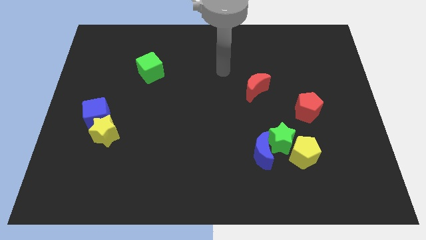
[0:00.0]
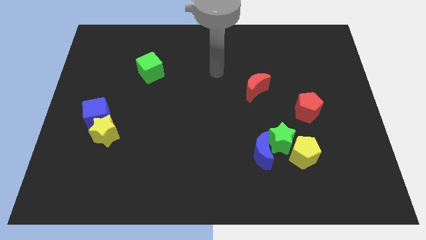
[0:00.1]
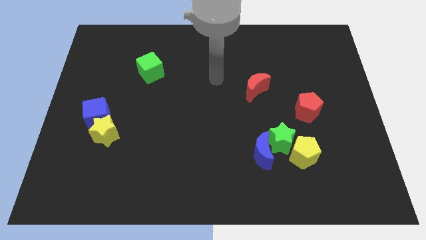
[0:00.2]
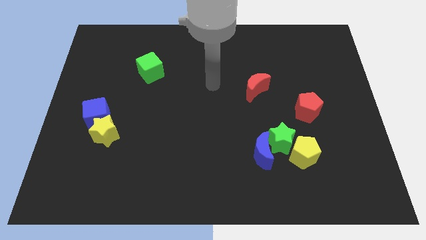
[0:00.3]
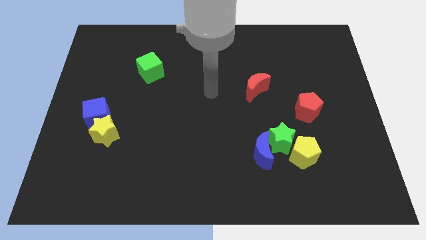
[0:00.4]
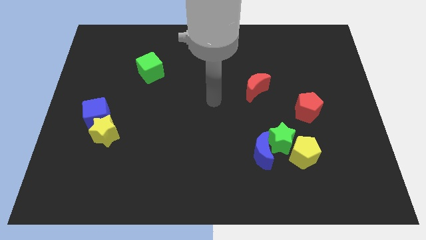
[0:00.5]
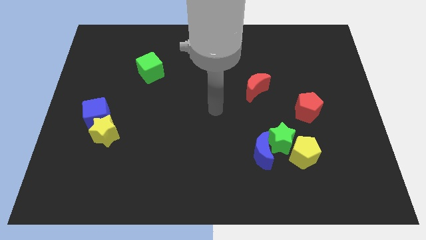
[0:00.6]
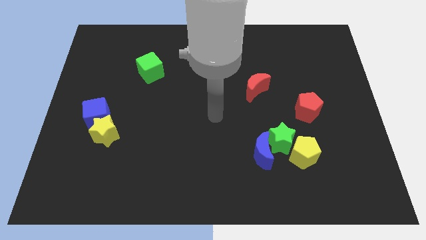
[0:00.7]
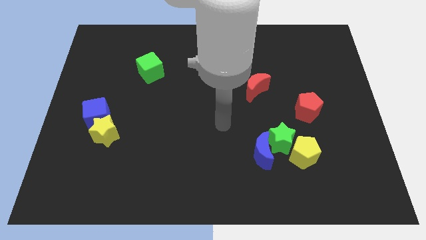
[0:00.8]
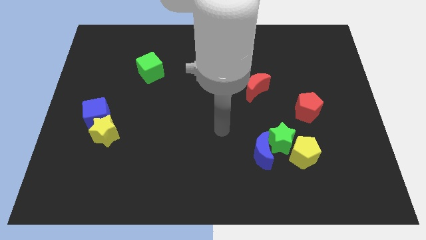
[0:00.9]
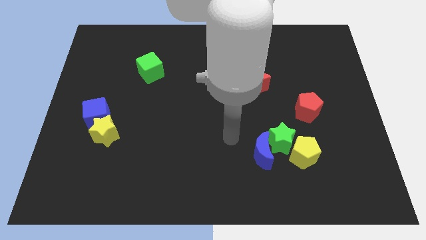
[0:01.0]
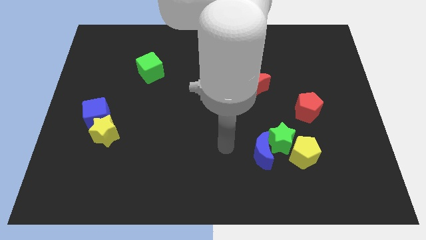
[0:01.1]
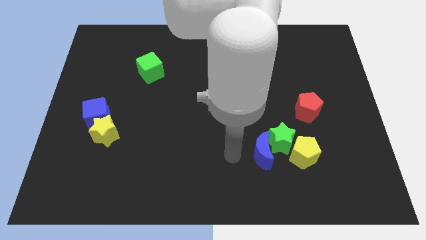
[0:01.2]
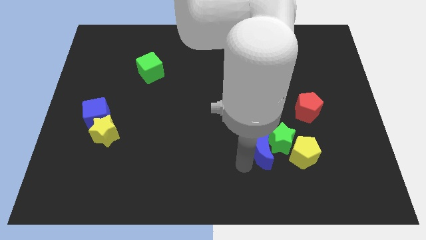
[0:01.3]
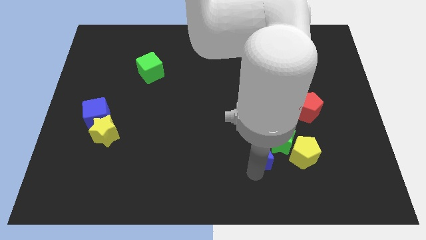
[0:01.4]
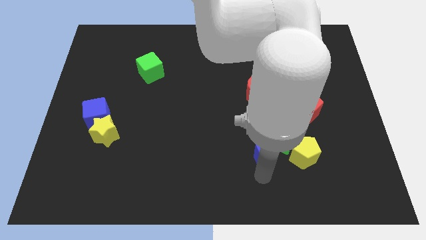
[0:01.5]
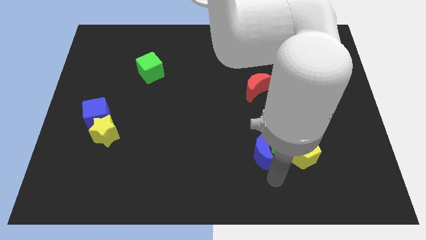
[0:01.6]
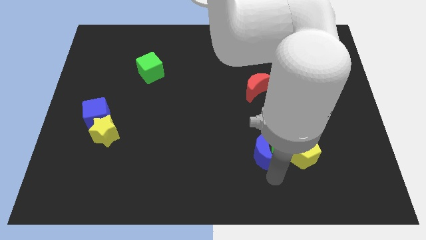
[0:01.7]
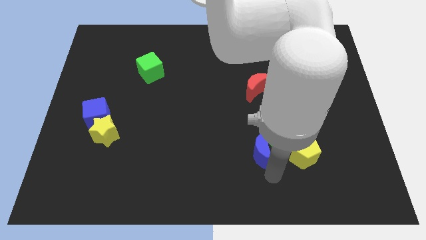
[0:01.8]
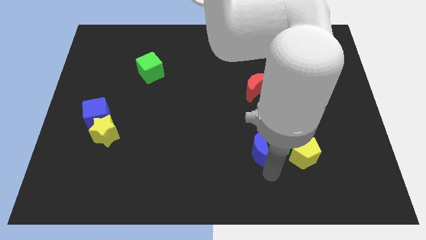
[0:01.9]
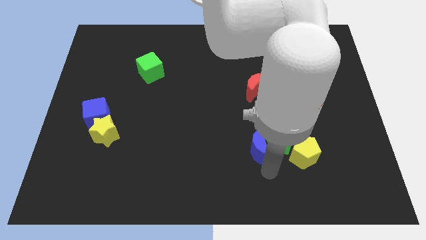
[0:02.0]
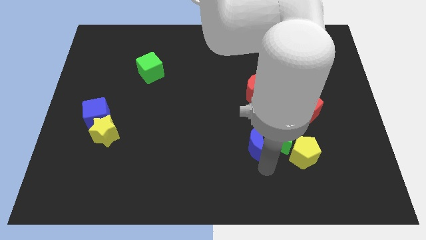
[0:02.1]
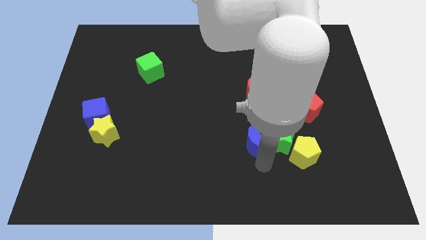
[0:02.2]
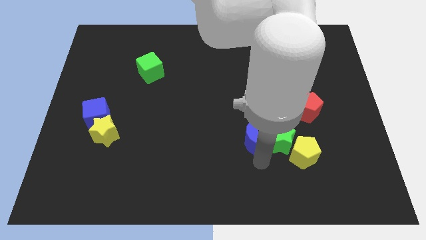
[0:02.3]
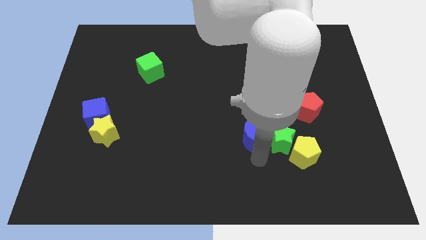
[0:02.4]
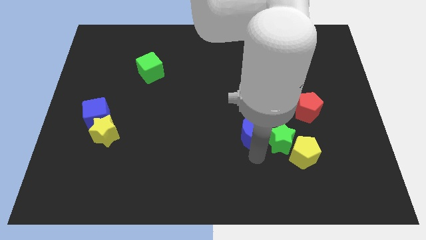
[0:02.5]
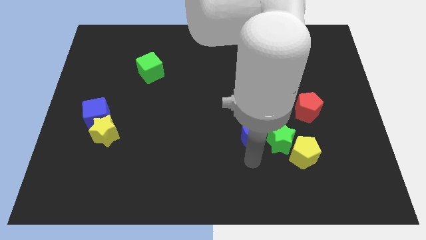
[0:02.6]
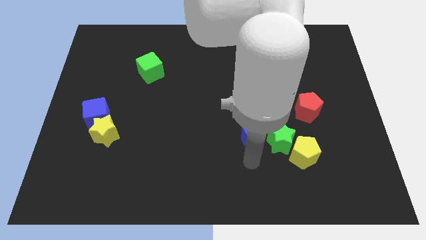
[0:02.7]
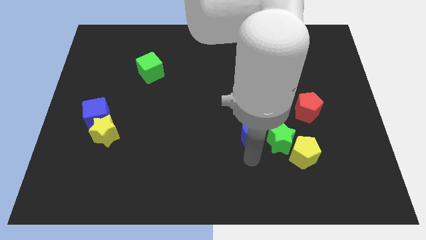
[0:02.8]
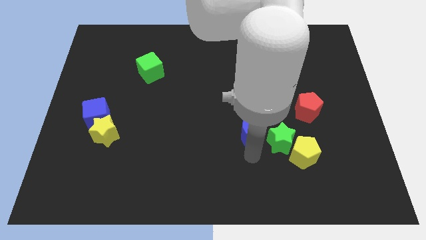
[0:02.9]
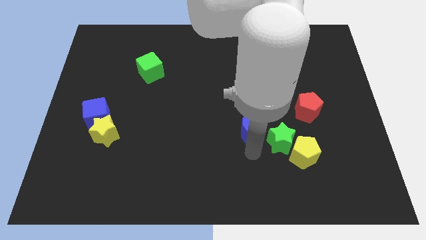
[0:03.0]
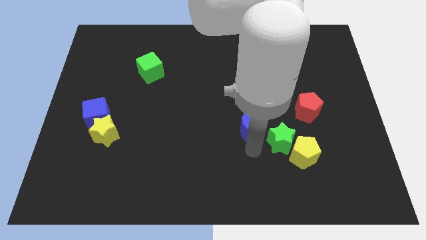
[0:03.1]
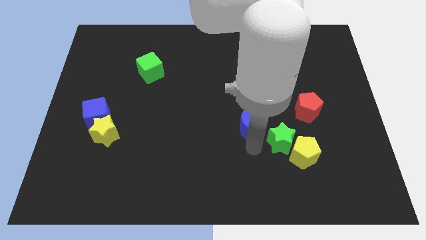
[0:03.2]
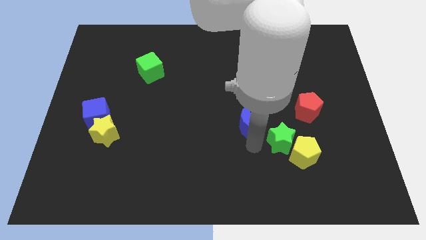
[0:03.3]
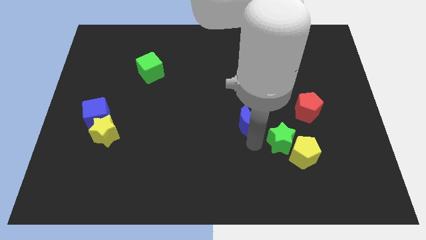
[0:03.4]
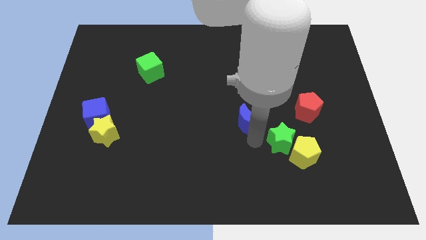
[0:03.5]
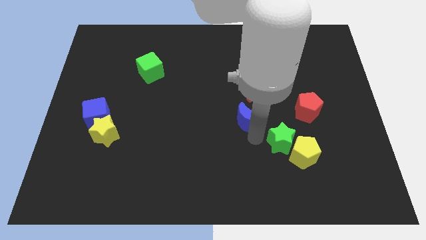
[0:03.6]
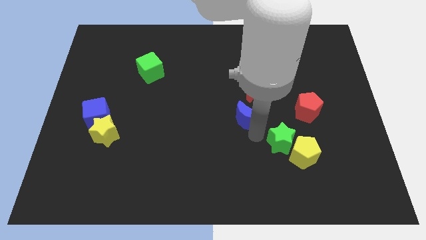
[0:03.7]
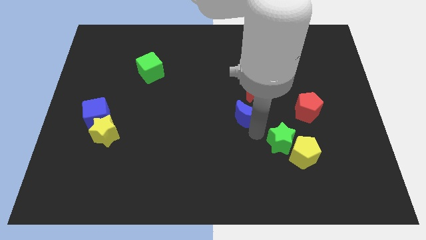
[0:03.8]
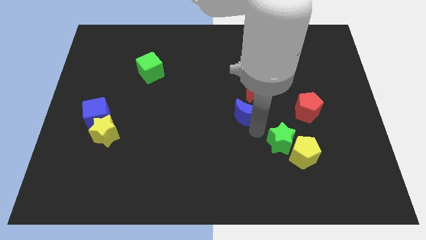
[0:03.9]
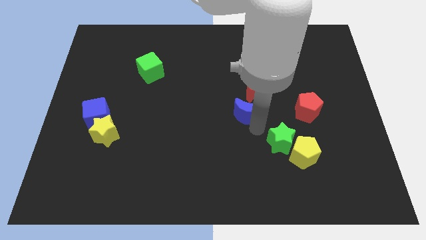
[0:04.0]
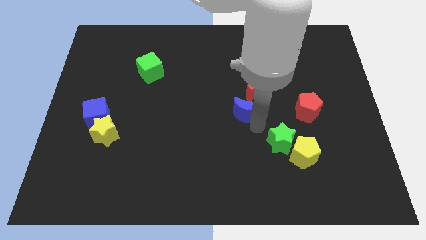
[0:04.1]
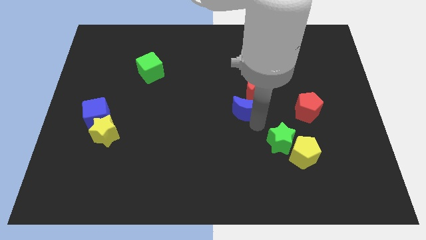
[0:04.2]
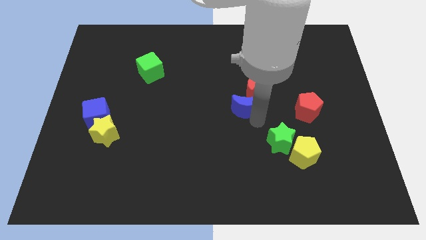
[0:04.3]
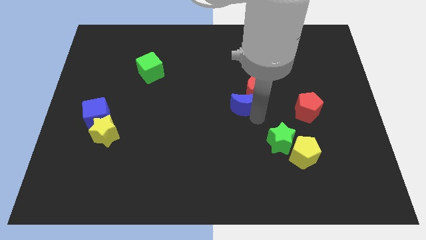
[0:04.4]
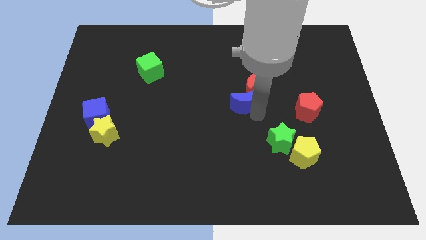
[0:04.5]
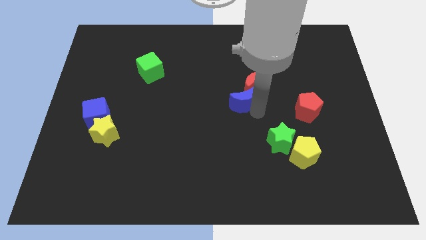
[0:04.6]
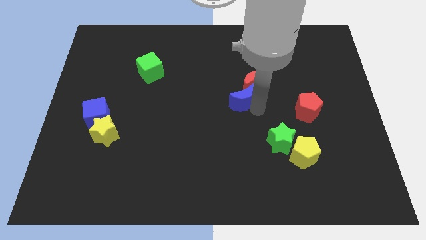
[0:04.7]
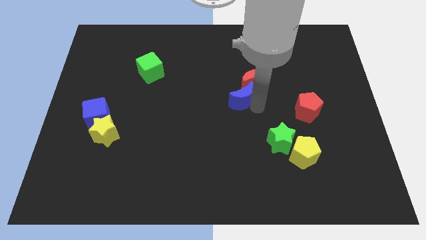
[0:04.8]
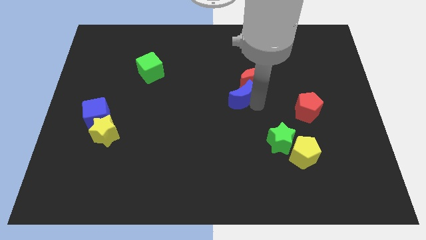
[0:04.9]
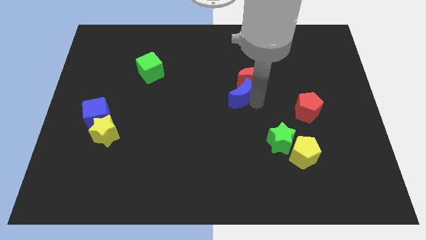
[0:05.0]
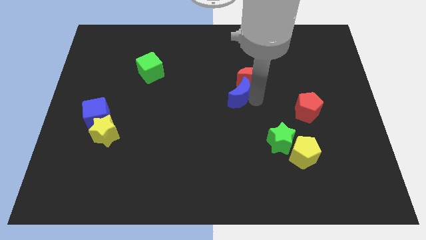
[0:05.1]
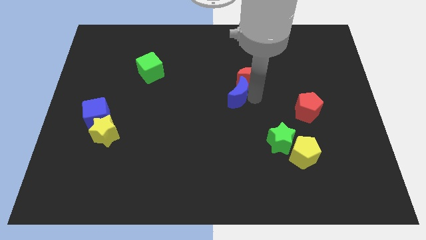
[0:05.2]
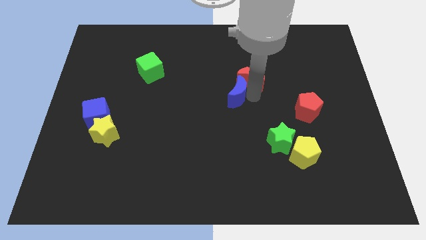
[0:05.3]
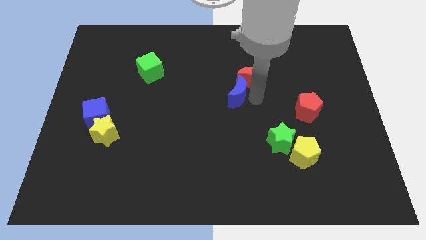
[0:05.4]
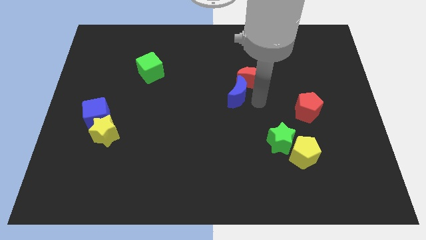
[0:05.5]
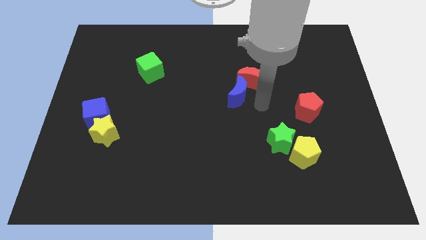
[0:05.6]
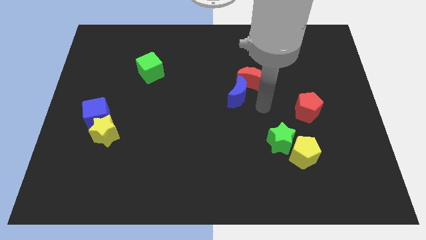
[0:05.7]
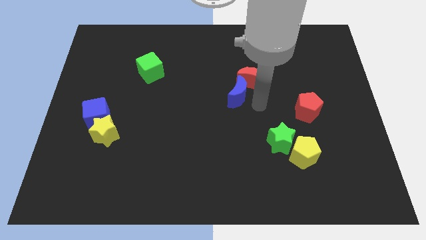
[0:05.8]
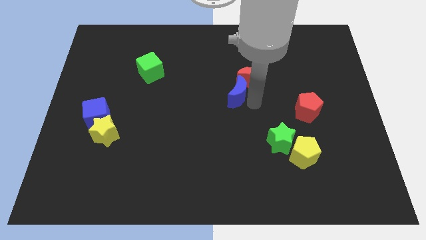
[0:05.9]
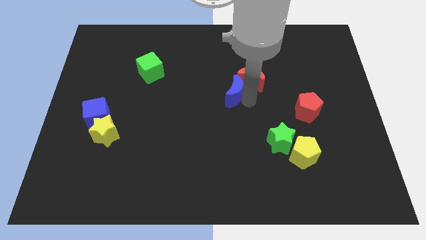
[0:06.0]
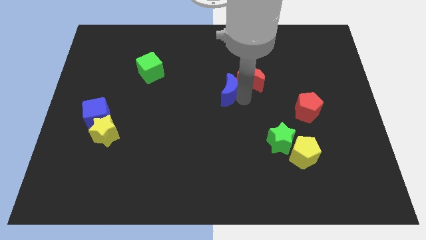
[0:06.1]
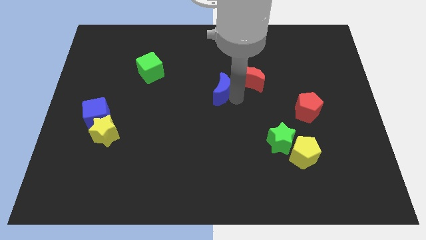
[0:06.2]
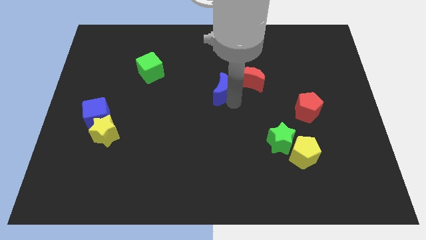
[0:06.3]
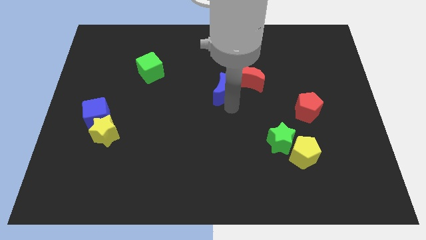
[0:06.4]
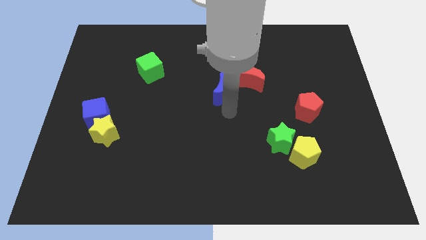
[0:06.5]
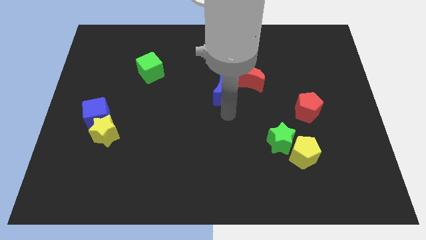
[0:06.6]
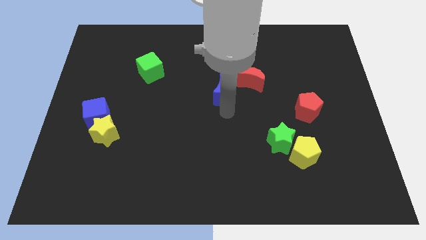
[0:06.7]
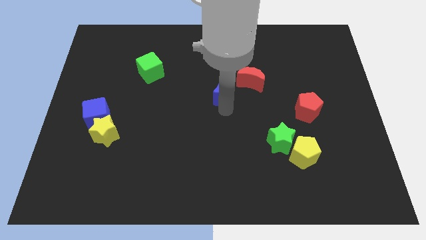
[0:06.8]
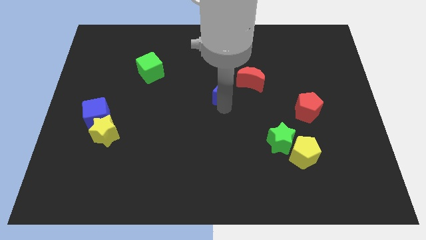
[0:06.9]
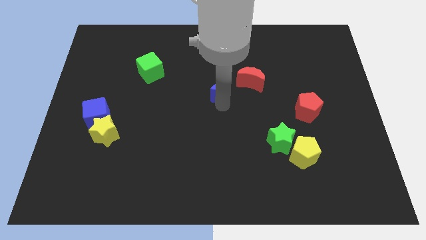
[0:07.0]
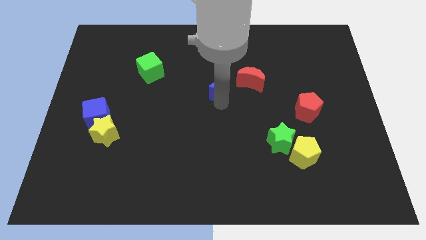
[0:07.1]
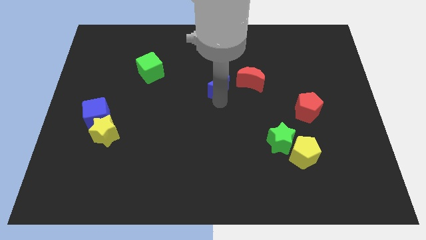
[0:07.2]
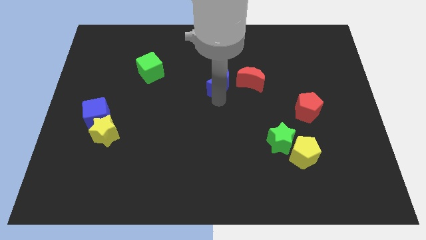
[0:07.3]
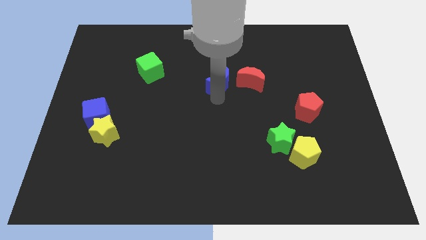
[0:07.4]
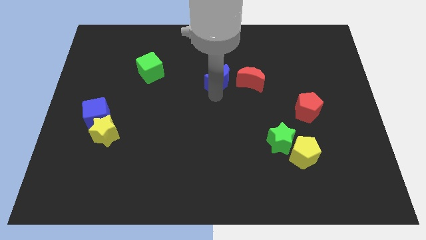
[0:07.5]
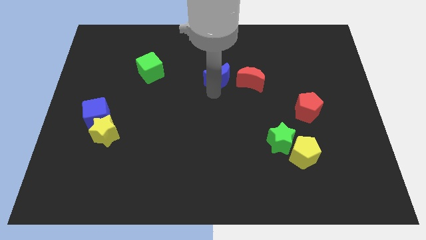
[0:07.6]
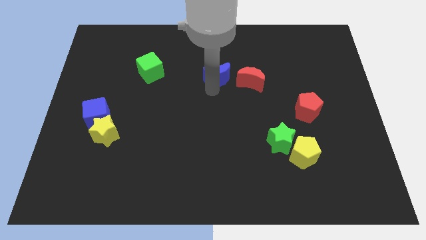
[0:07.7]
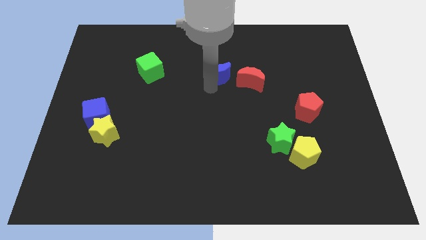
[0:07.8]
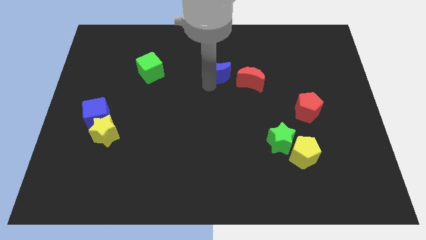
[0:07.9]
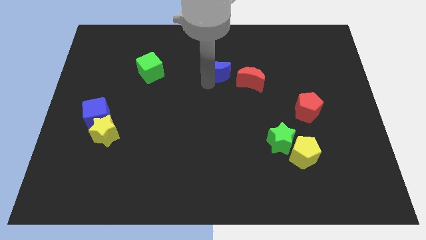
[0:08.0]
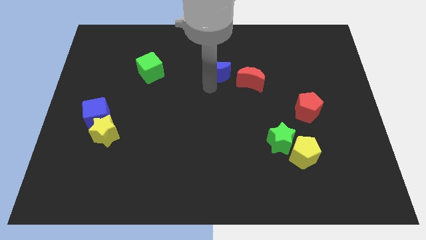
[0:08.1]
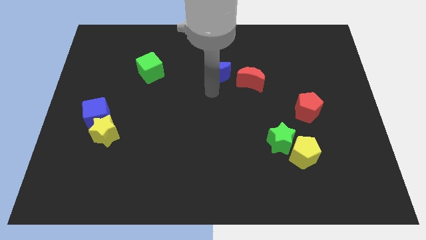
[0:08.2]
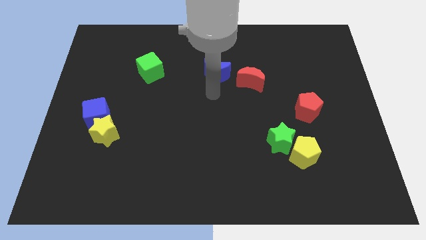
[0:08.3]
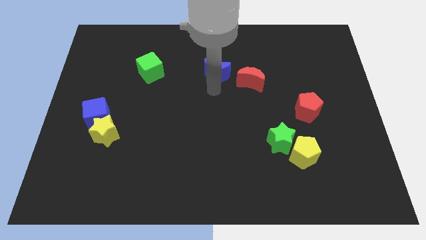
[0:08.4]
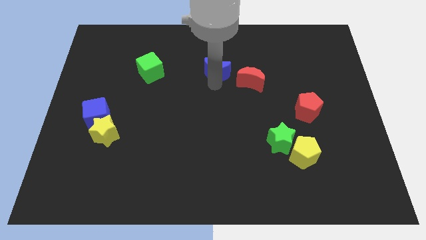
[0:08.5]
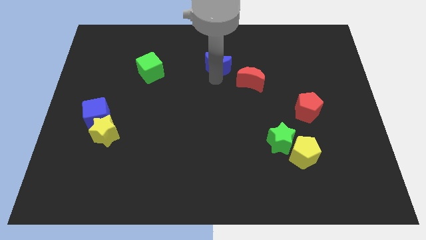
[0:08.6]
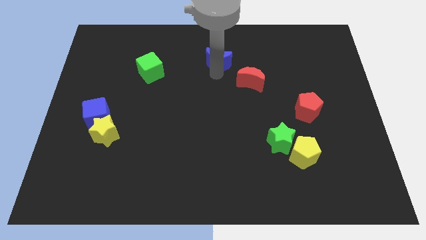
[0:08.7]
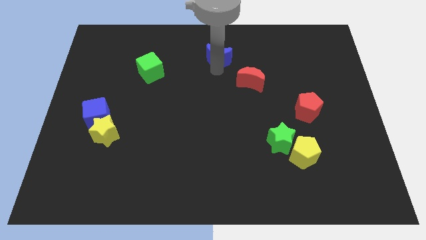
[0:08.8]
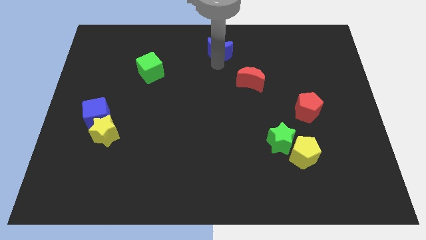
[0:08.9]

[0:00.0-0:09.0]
move the blue moon to the top side
